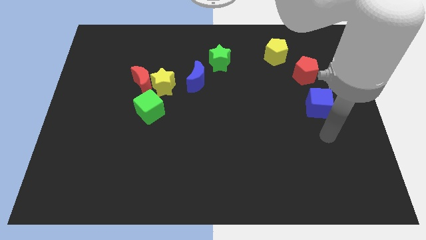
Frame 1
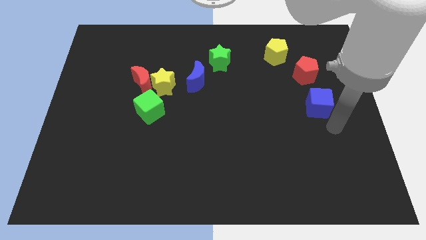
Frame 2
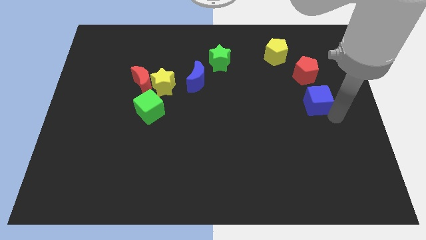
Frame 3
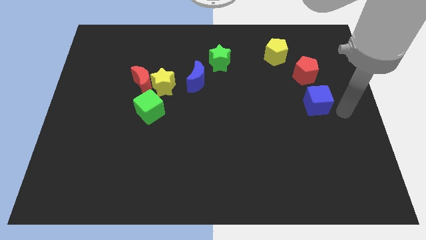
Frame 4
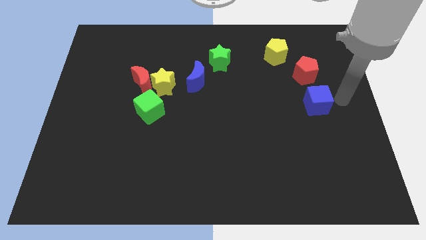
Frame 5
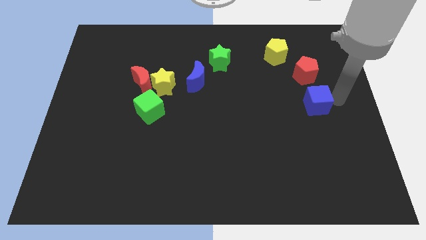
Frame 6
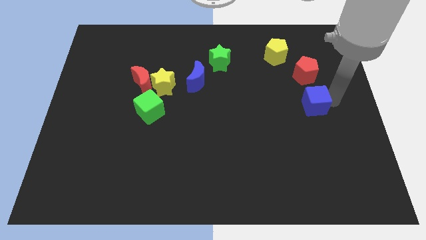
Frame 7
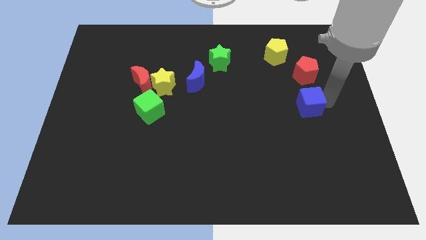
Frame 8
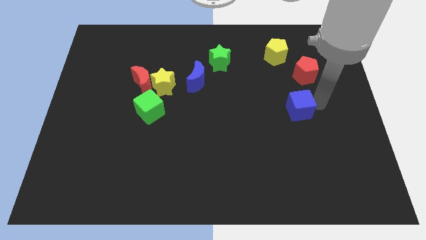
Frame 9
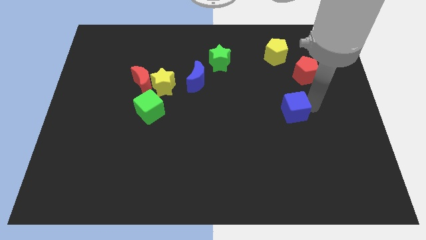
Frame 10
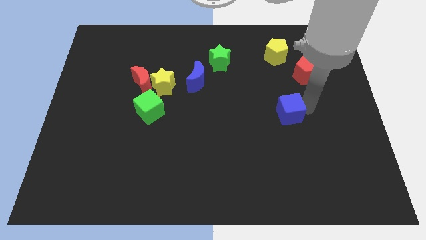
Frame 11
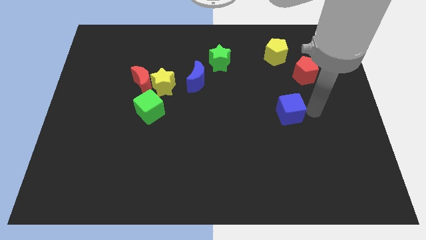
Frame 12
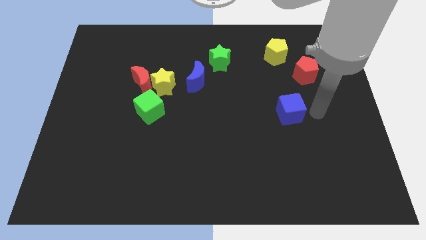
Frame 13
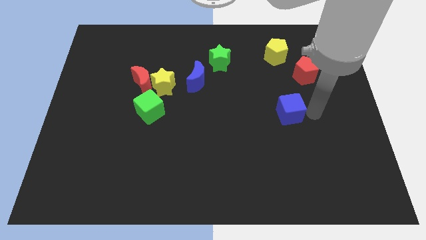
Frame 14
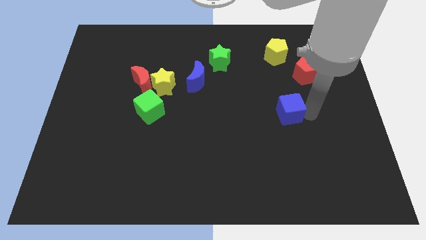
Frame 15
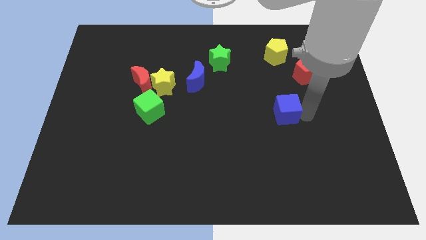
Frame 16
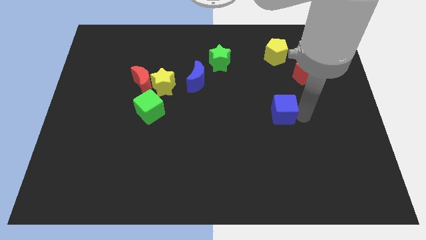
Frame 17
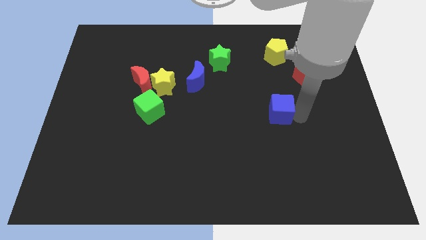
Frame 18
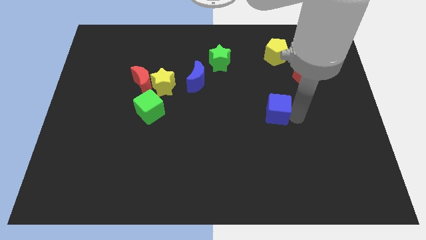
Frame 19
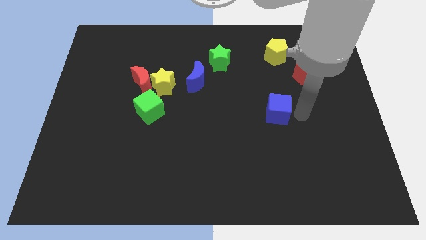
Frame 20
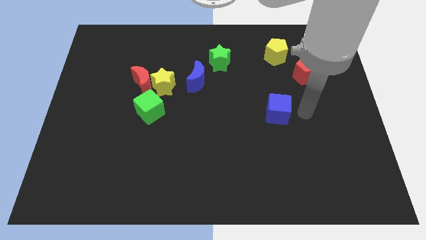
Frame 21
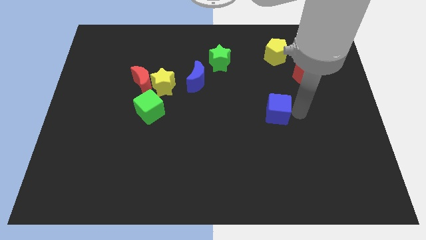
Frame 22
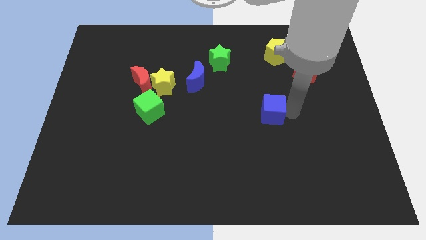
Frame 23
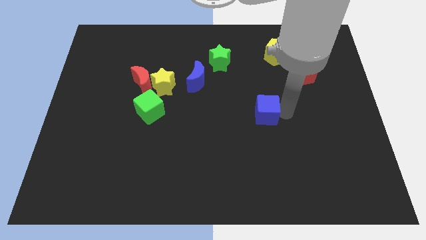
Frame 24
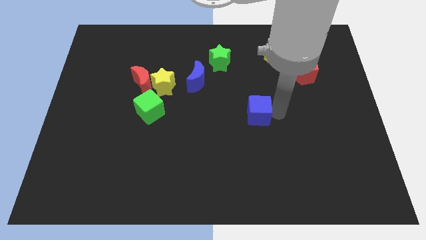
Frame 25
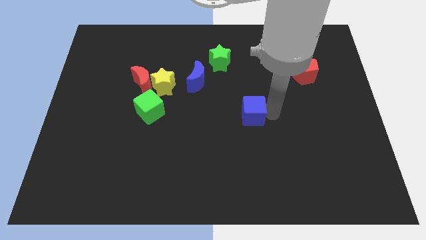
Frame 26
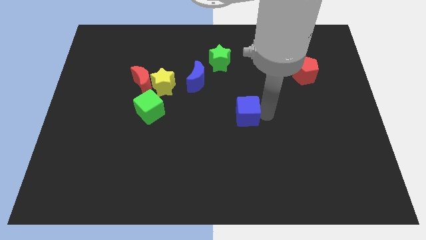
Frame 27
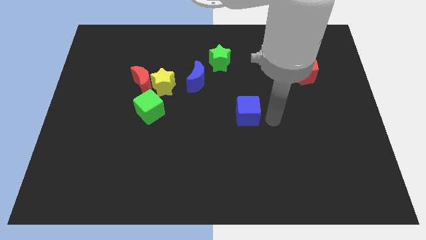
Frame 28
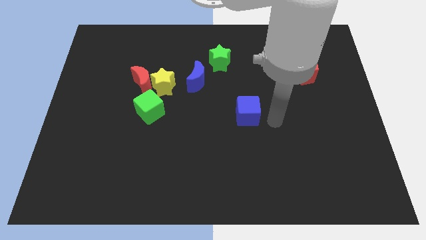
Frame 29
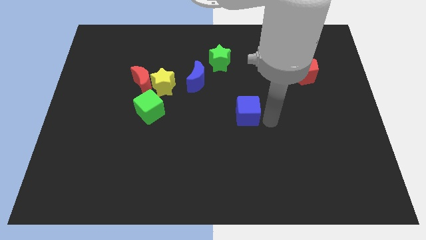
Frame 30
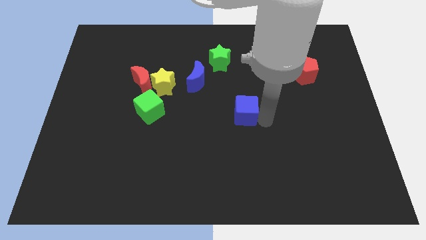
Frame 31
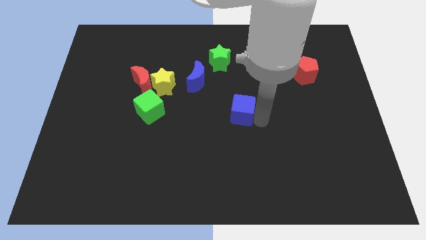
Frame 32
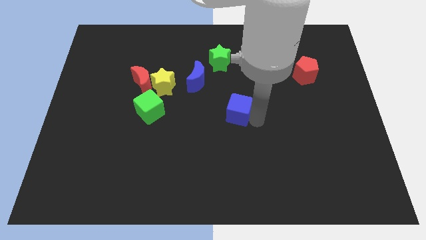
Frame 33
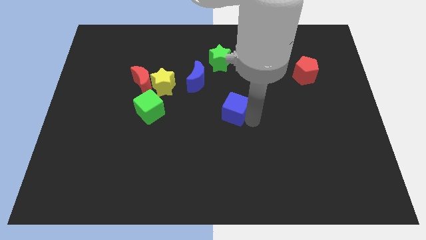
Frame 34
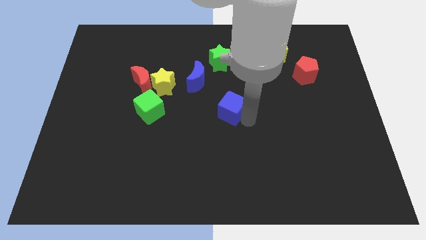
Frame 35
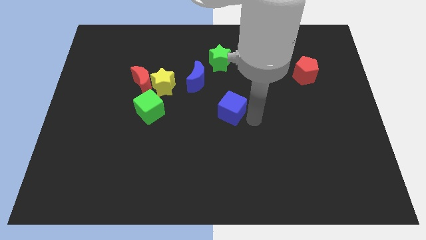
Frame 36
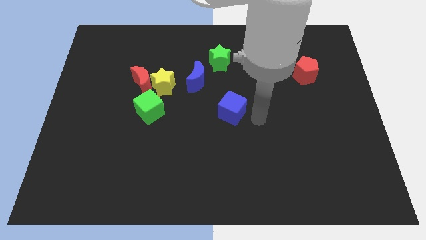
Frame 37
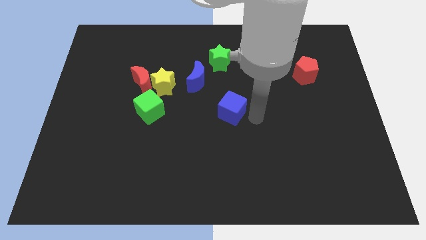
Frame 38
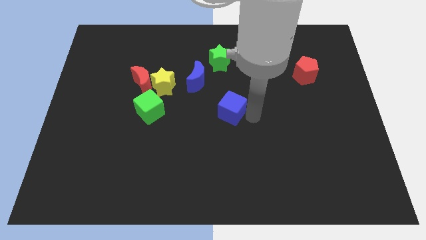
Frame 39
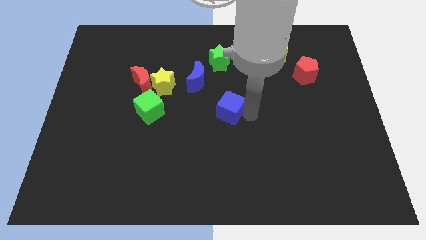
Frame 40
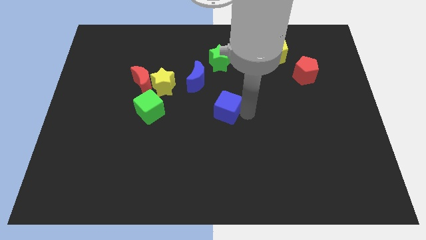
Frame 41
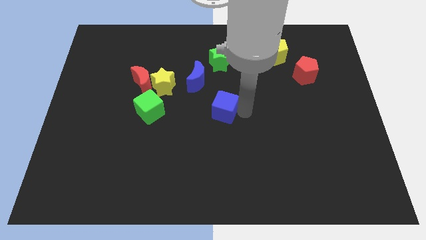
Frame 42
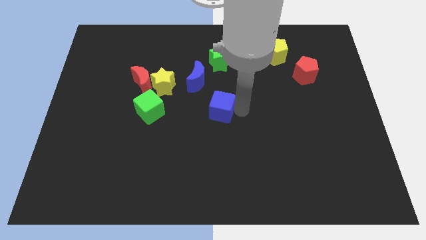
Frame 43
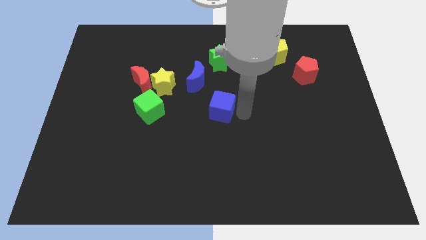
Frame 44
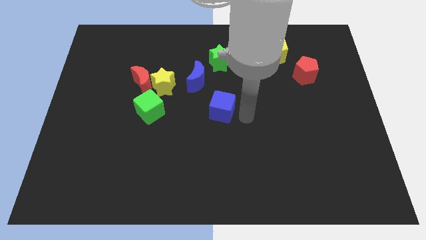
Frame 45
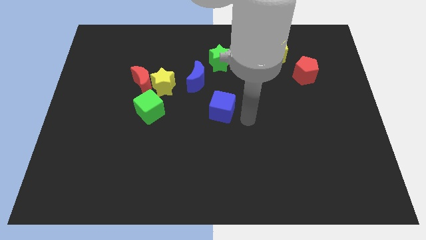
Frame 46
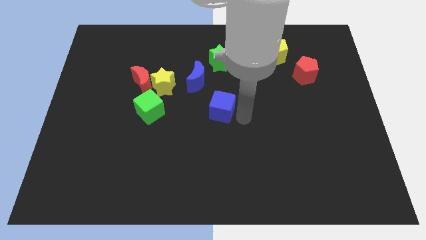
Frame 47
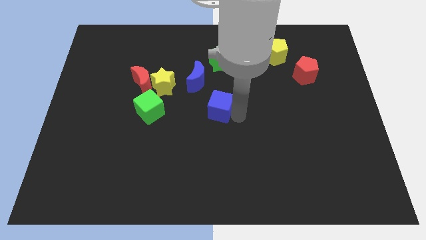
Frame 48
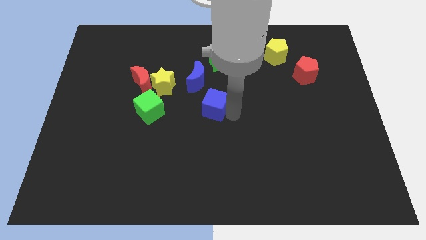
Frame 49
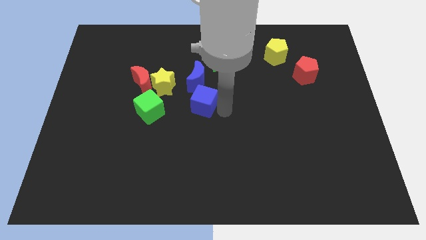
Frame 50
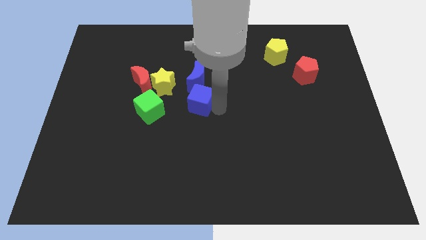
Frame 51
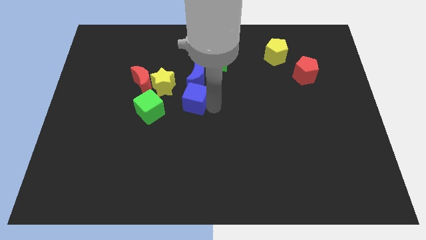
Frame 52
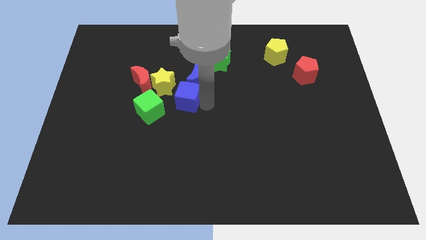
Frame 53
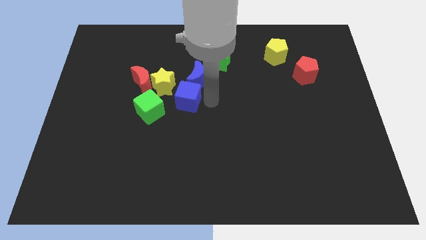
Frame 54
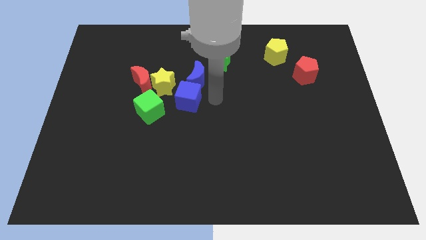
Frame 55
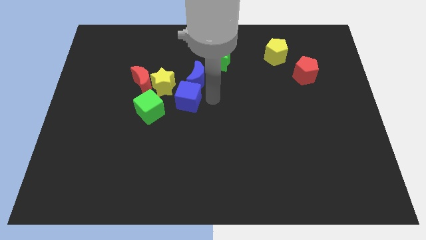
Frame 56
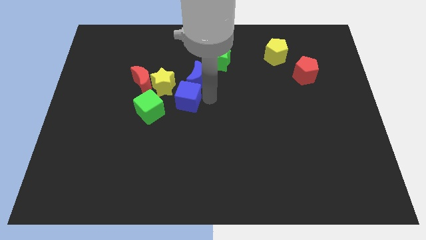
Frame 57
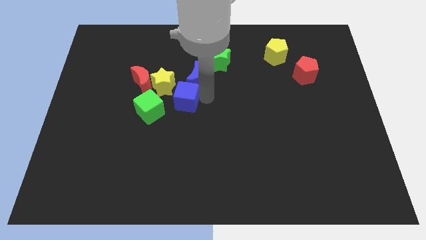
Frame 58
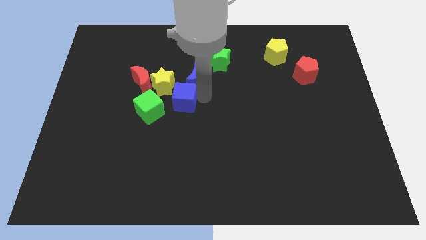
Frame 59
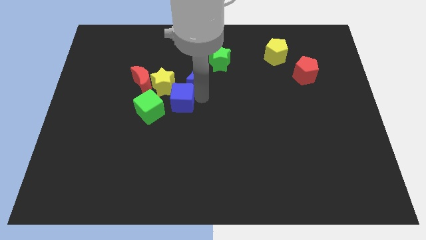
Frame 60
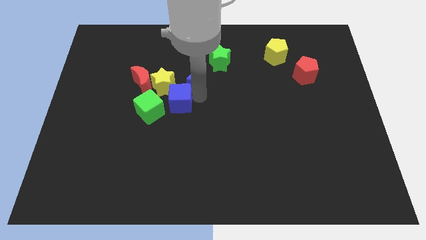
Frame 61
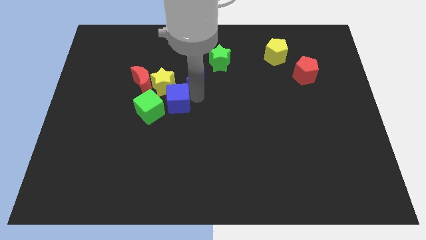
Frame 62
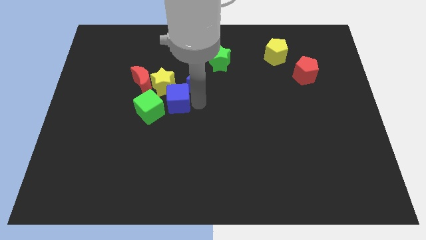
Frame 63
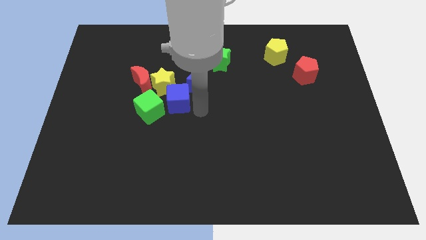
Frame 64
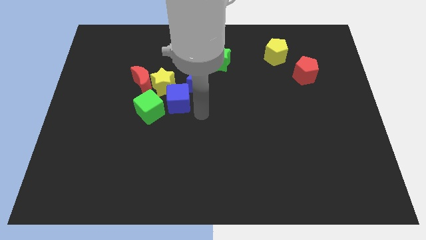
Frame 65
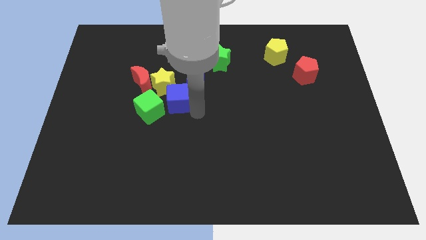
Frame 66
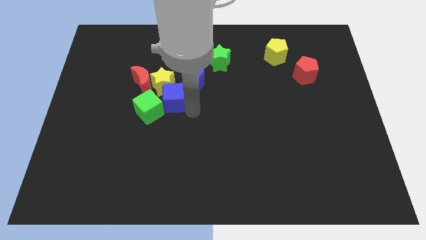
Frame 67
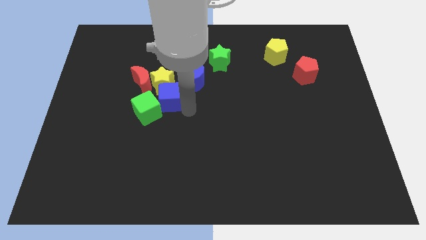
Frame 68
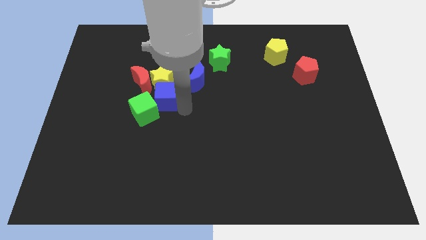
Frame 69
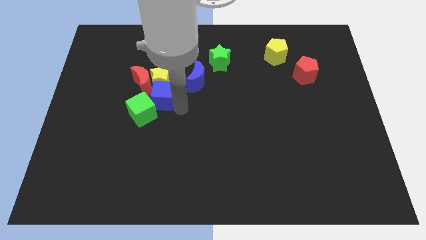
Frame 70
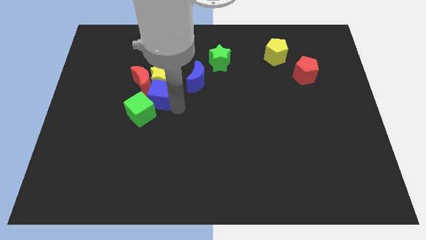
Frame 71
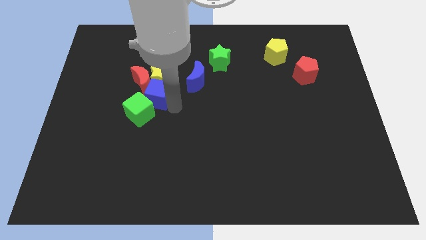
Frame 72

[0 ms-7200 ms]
slide the blue cube next to the red moon
